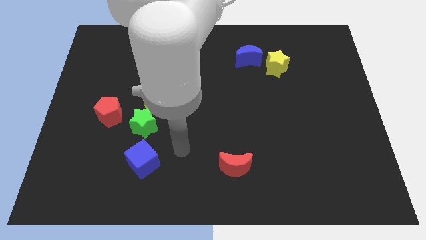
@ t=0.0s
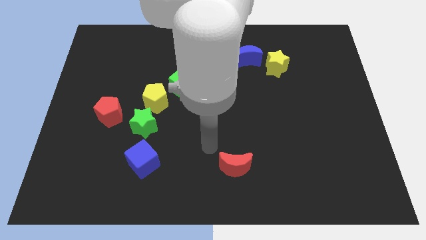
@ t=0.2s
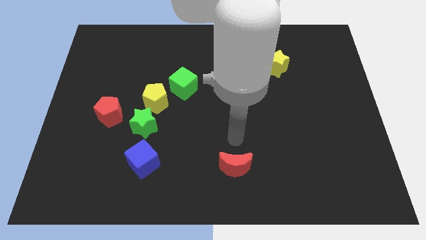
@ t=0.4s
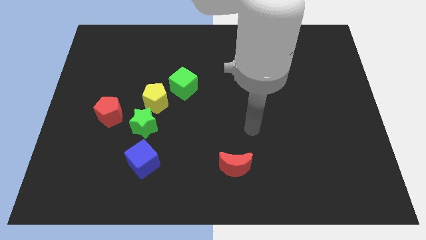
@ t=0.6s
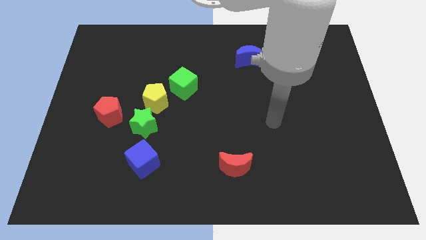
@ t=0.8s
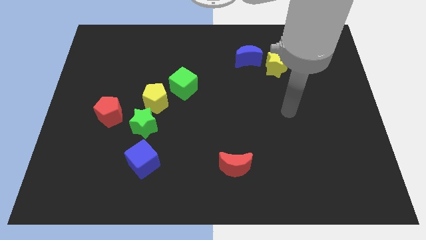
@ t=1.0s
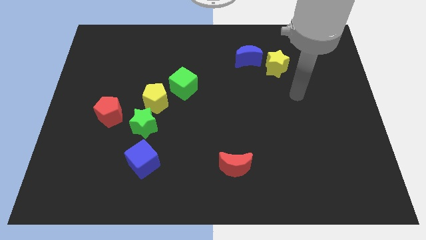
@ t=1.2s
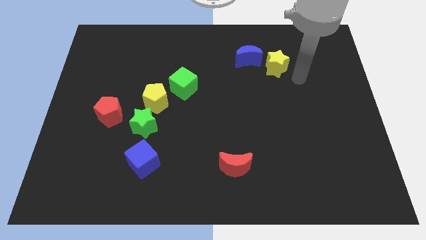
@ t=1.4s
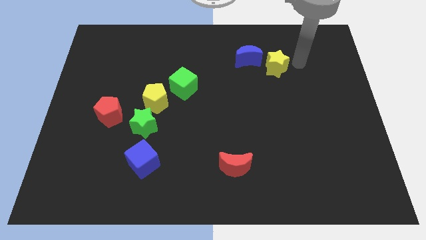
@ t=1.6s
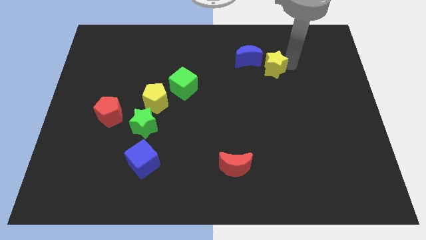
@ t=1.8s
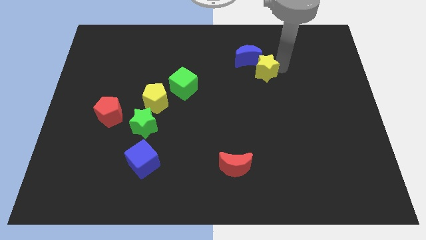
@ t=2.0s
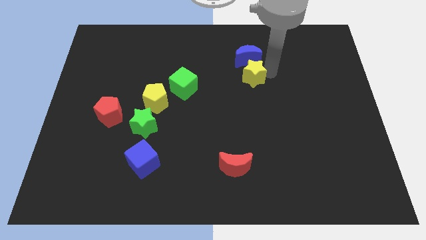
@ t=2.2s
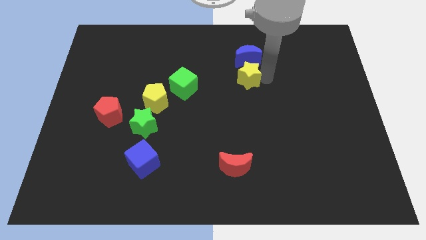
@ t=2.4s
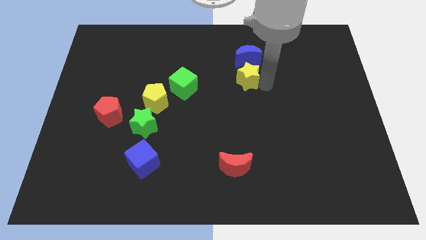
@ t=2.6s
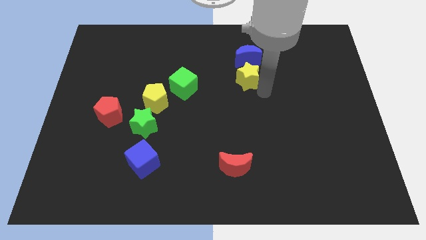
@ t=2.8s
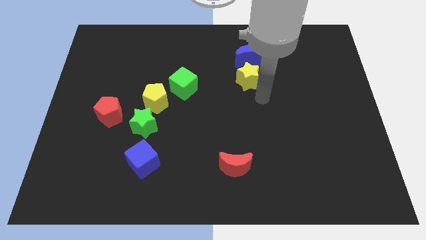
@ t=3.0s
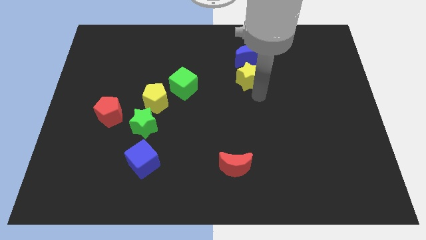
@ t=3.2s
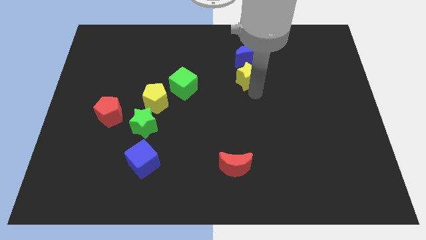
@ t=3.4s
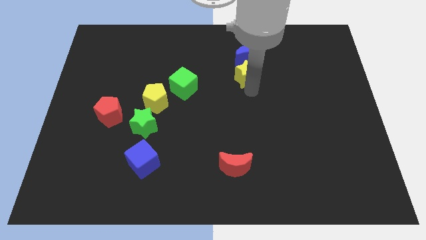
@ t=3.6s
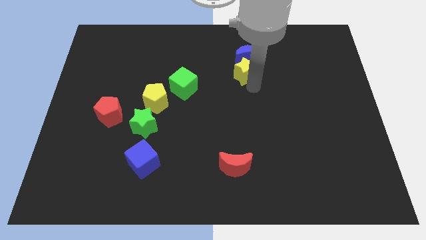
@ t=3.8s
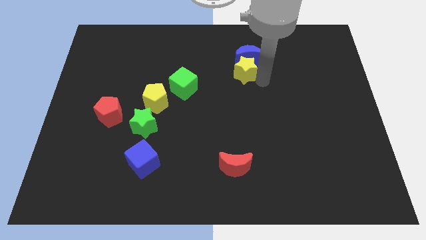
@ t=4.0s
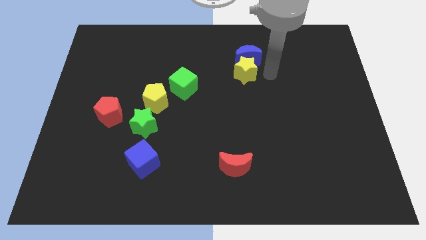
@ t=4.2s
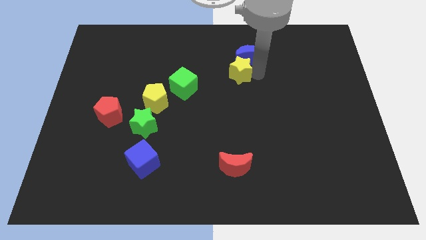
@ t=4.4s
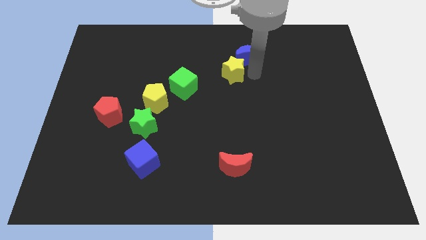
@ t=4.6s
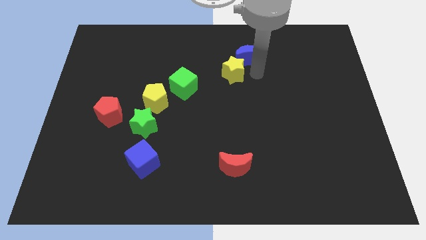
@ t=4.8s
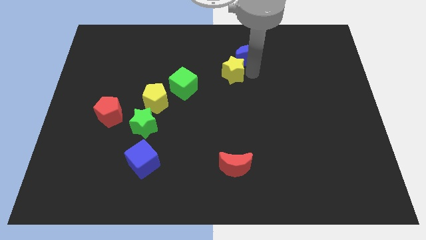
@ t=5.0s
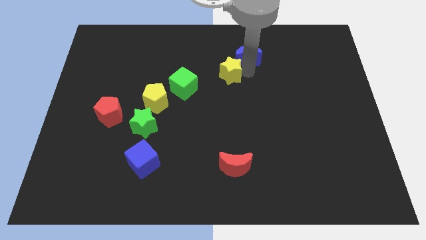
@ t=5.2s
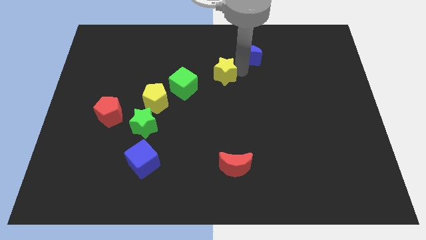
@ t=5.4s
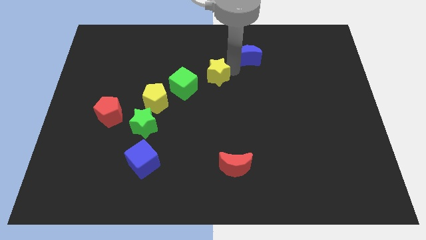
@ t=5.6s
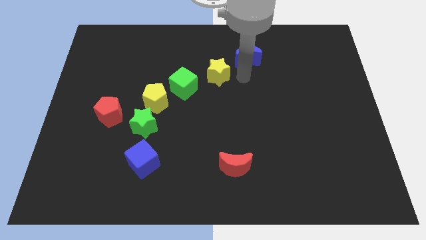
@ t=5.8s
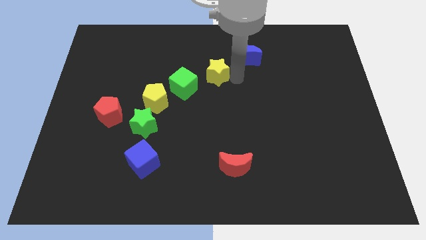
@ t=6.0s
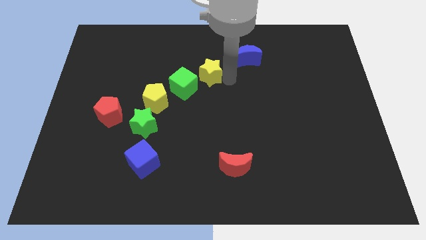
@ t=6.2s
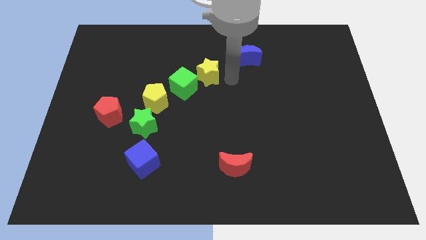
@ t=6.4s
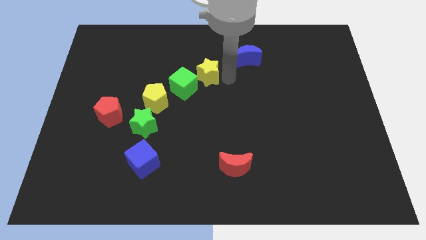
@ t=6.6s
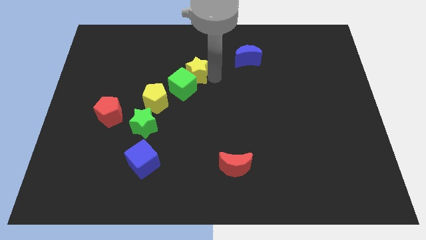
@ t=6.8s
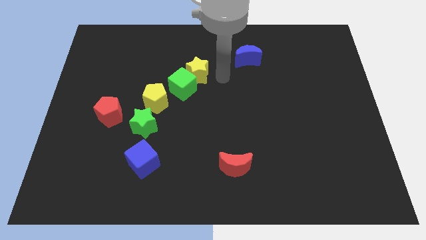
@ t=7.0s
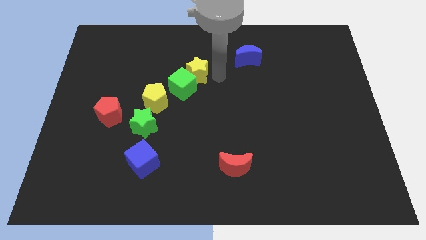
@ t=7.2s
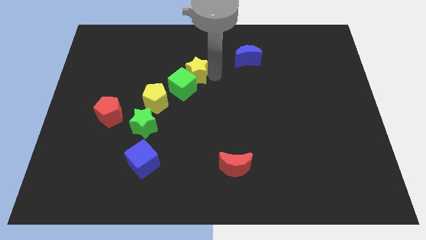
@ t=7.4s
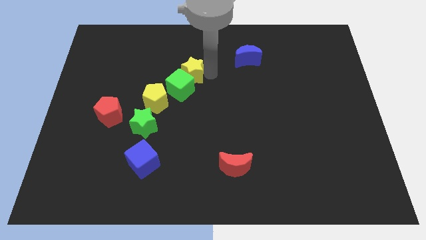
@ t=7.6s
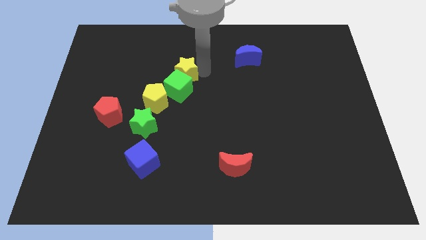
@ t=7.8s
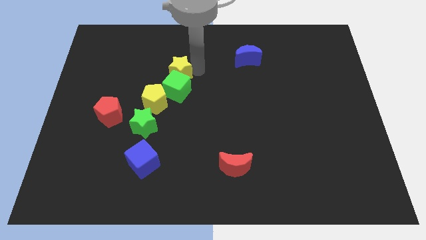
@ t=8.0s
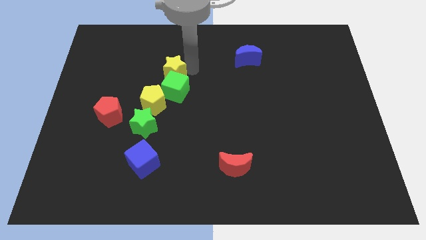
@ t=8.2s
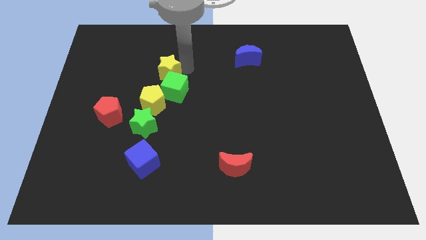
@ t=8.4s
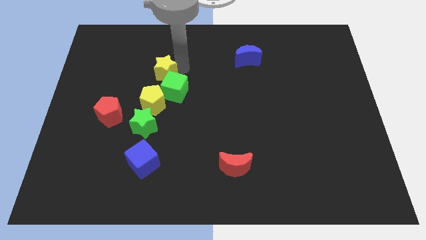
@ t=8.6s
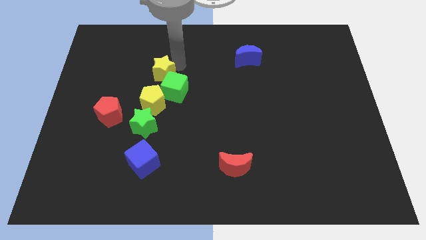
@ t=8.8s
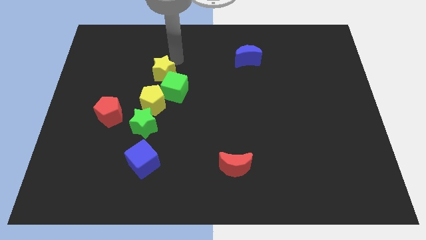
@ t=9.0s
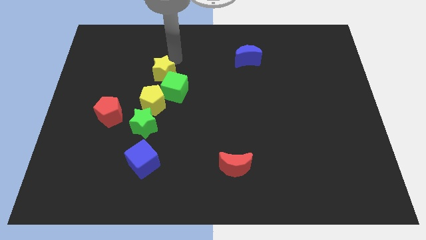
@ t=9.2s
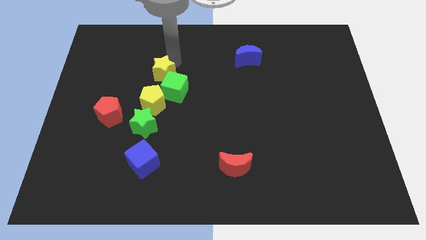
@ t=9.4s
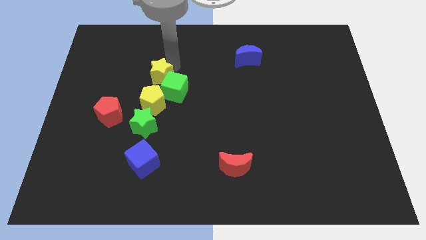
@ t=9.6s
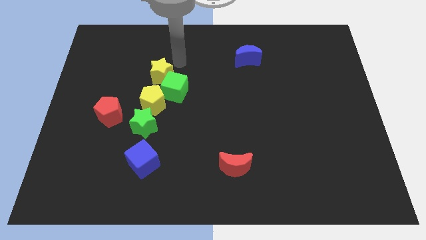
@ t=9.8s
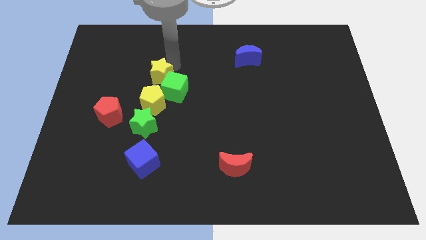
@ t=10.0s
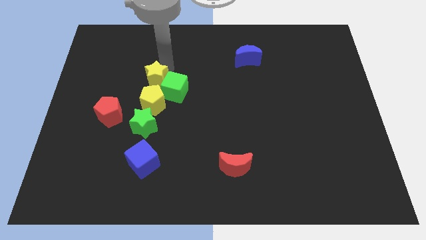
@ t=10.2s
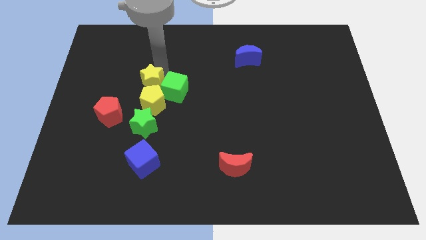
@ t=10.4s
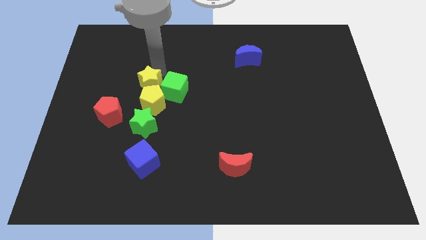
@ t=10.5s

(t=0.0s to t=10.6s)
push the yellow star diagonally up and to the right of the red pentagon

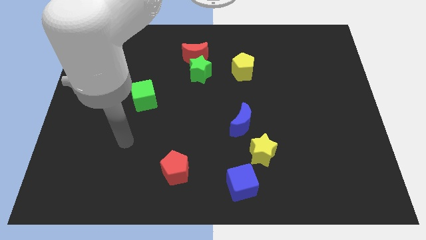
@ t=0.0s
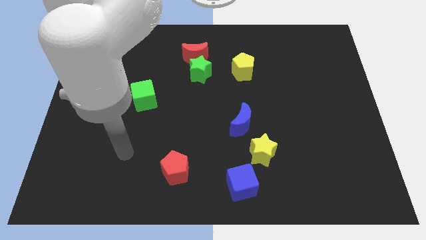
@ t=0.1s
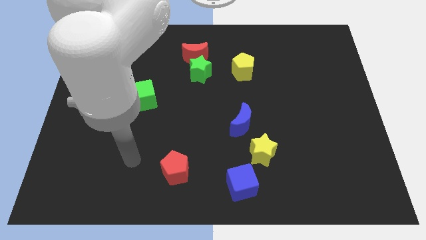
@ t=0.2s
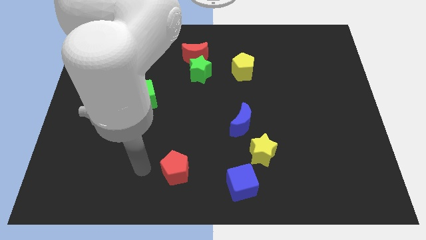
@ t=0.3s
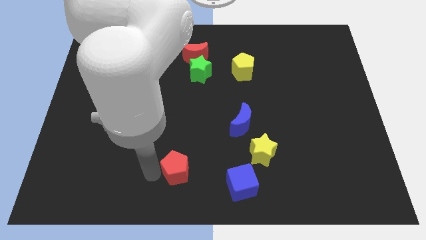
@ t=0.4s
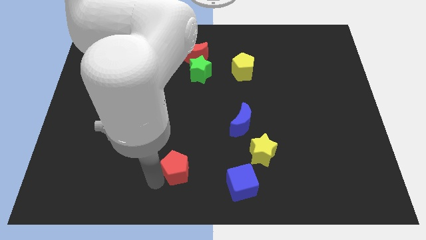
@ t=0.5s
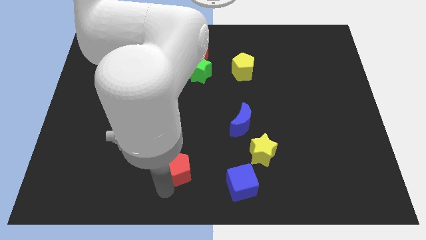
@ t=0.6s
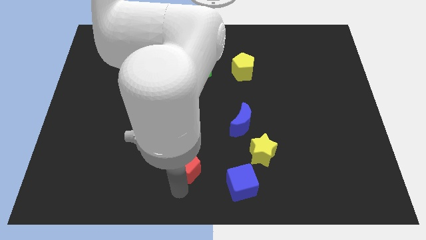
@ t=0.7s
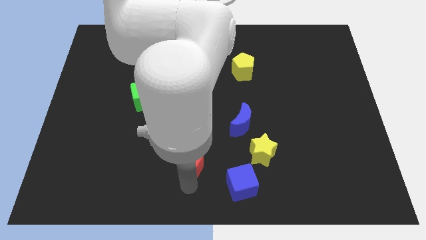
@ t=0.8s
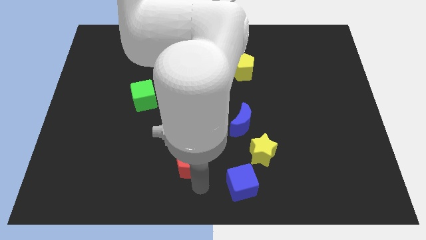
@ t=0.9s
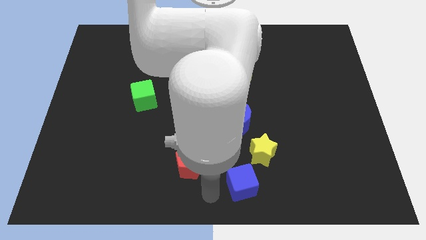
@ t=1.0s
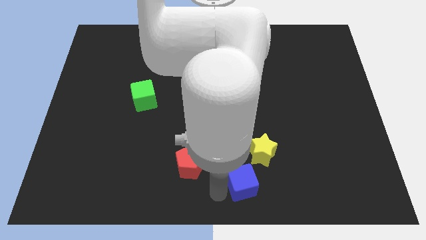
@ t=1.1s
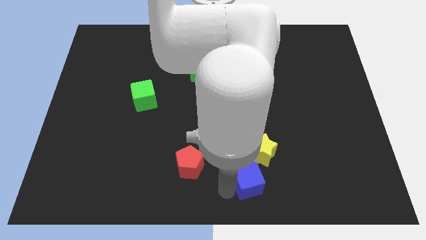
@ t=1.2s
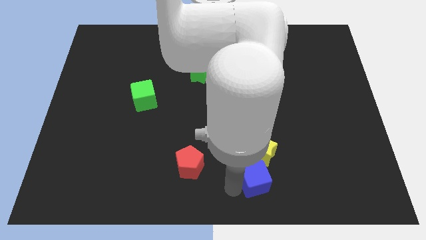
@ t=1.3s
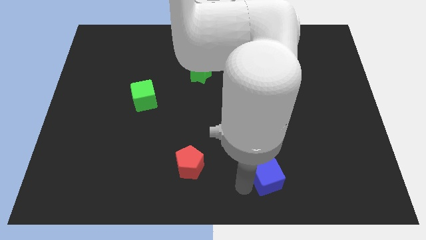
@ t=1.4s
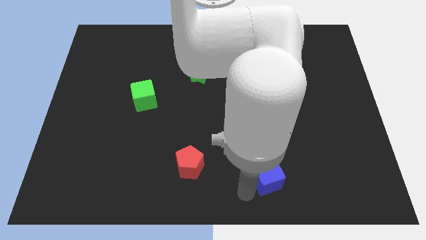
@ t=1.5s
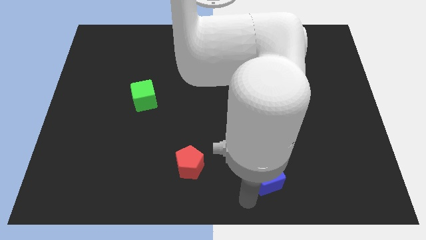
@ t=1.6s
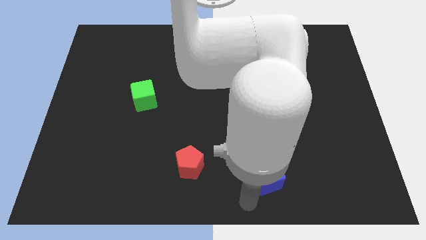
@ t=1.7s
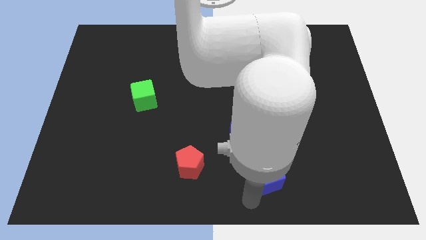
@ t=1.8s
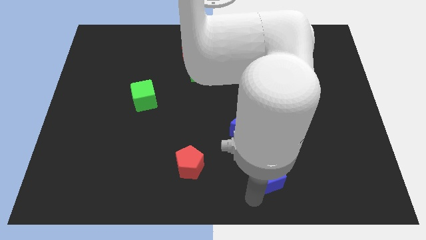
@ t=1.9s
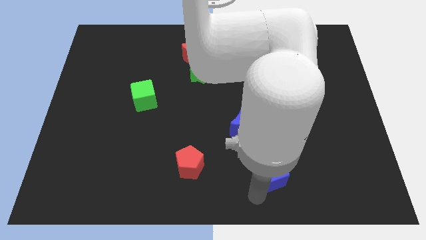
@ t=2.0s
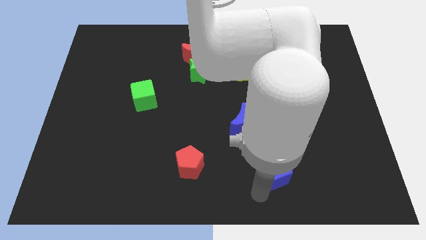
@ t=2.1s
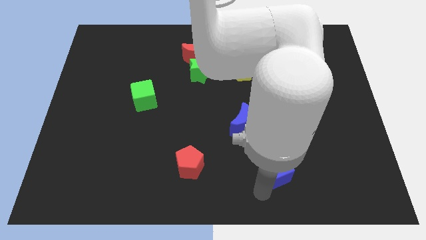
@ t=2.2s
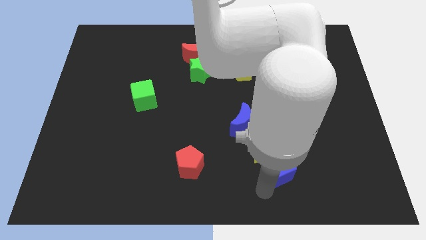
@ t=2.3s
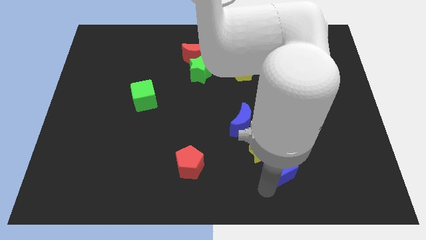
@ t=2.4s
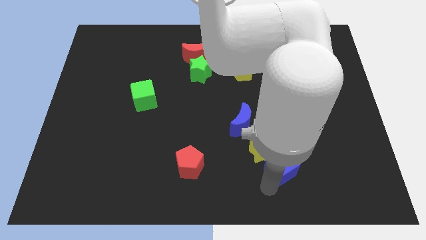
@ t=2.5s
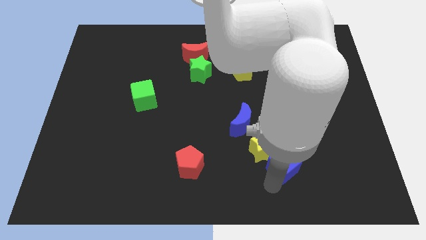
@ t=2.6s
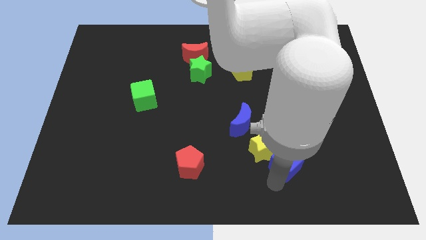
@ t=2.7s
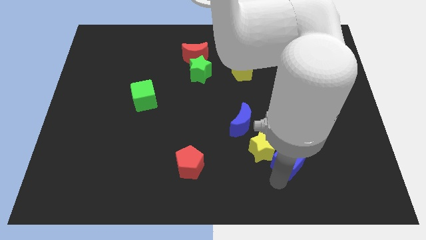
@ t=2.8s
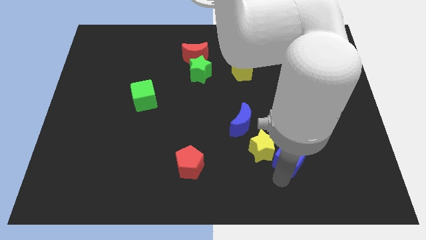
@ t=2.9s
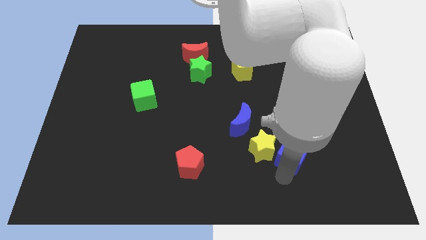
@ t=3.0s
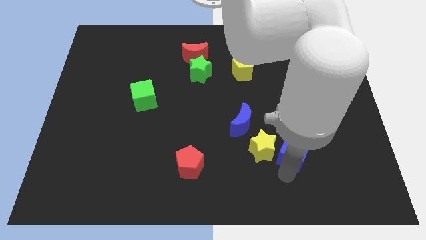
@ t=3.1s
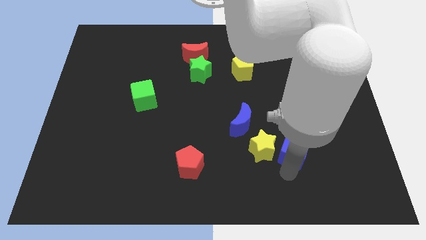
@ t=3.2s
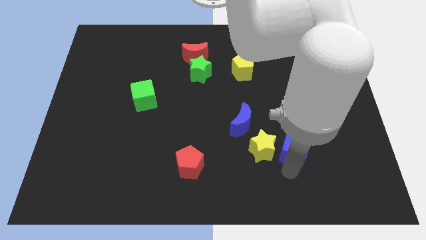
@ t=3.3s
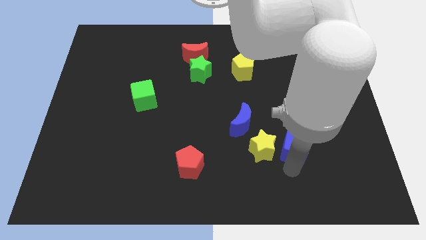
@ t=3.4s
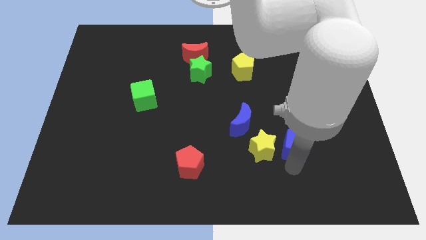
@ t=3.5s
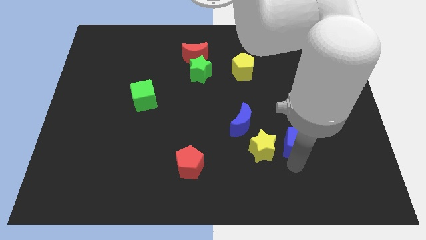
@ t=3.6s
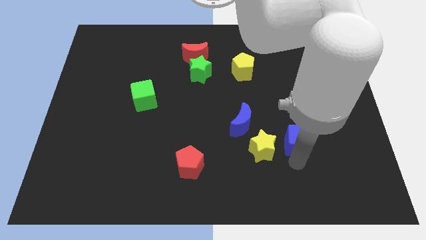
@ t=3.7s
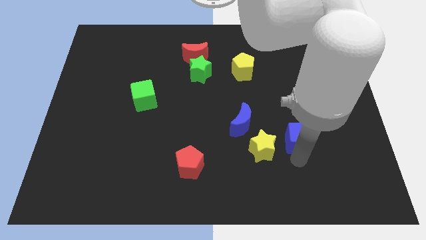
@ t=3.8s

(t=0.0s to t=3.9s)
push the blue cube to the right of the blue moon
